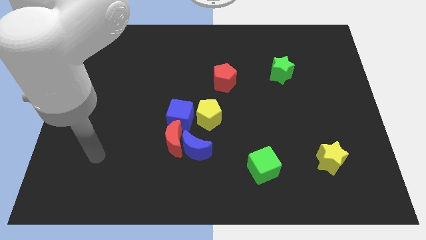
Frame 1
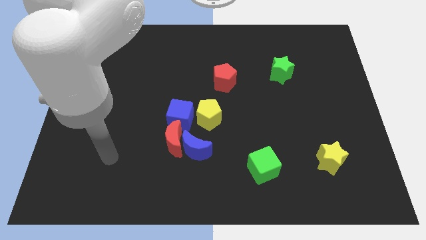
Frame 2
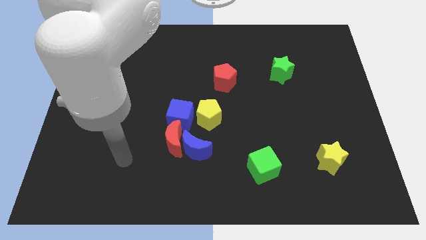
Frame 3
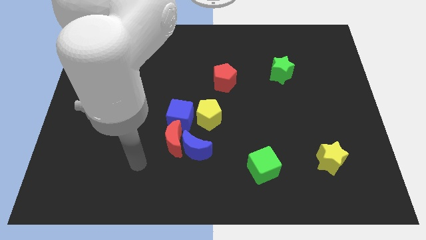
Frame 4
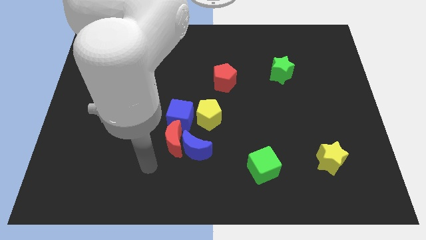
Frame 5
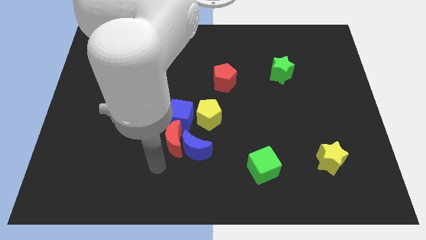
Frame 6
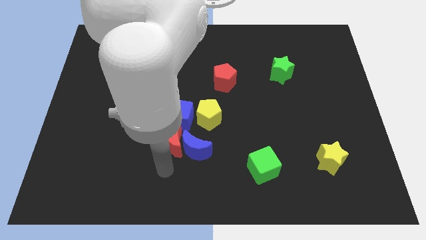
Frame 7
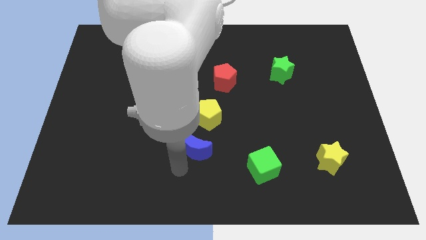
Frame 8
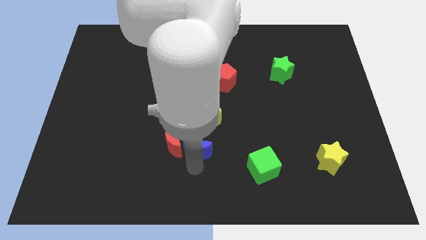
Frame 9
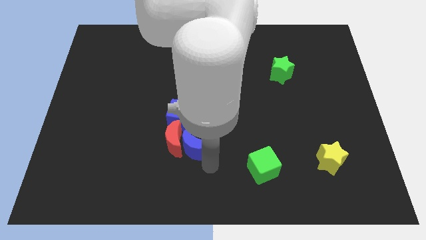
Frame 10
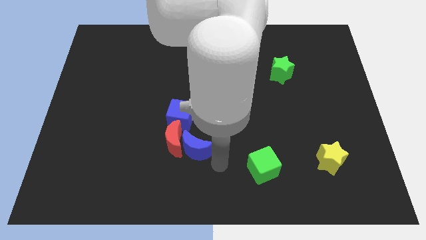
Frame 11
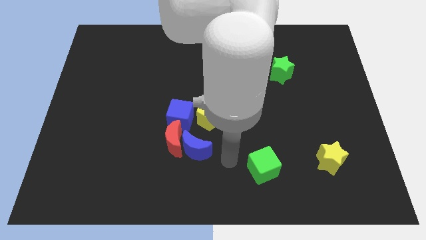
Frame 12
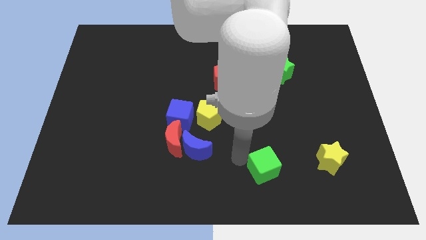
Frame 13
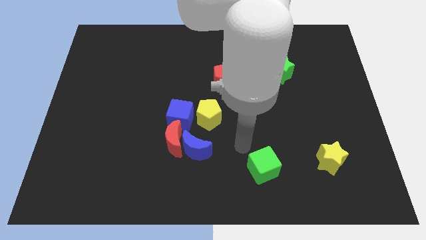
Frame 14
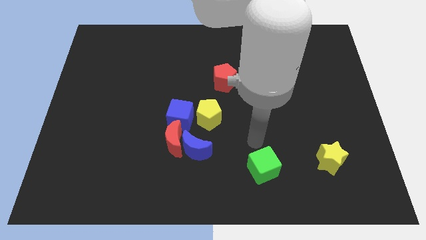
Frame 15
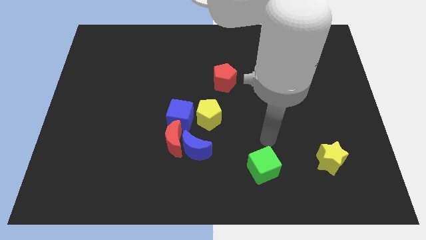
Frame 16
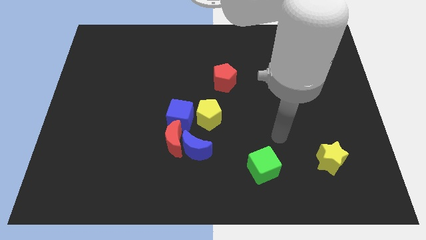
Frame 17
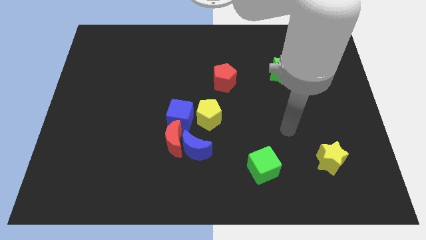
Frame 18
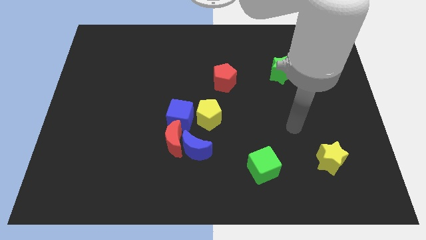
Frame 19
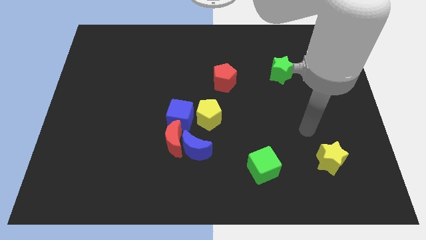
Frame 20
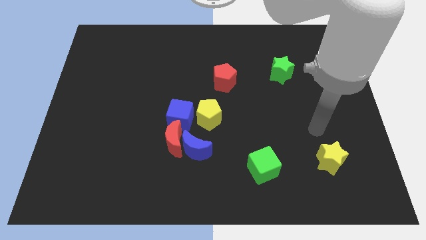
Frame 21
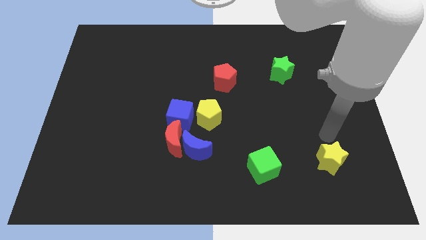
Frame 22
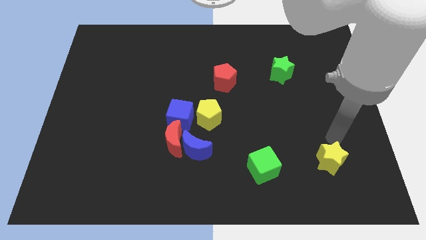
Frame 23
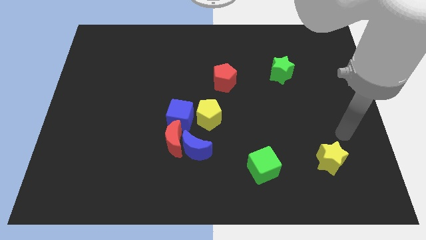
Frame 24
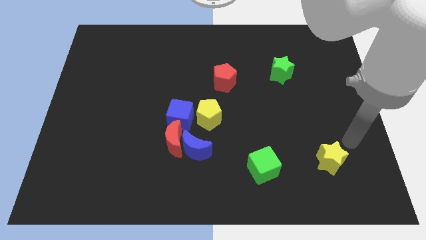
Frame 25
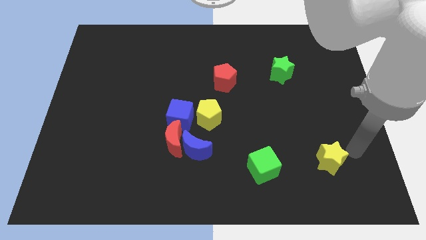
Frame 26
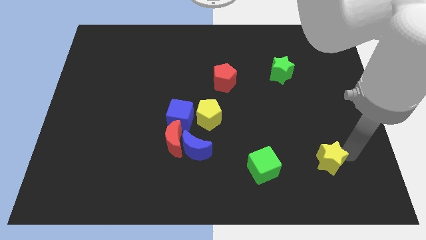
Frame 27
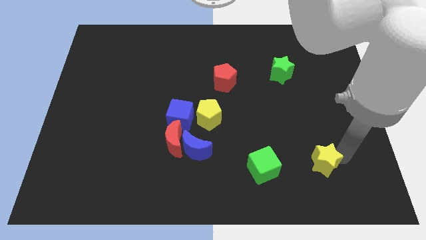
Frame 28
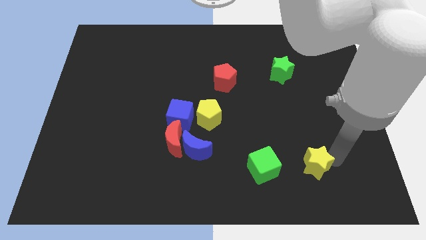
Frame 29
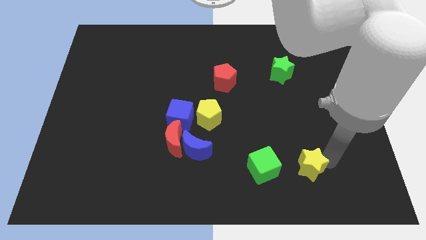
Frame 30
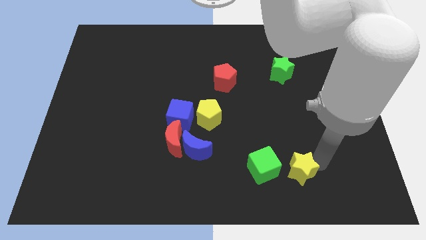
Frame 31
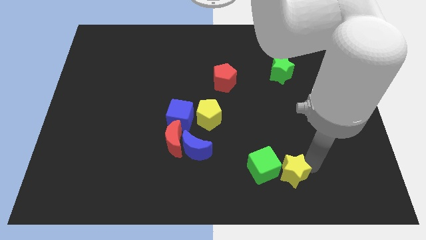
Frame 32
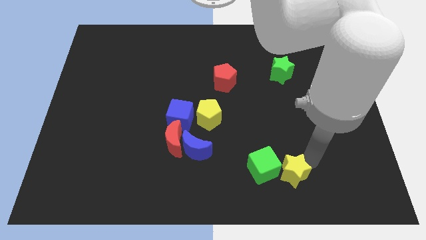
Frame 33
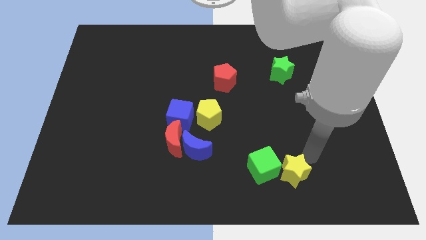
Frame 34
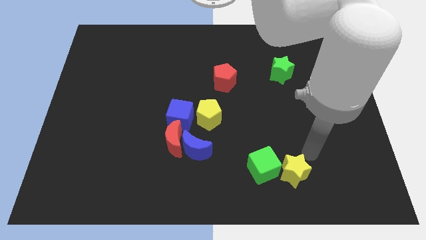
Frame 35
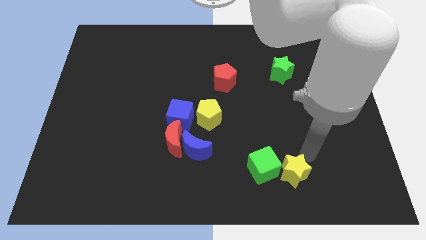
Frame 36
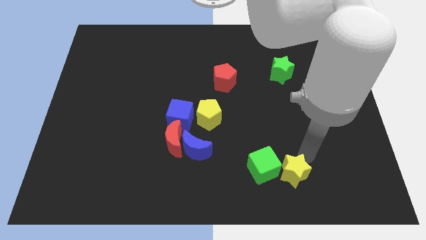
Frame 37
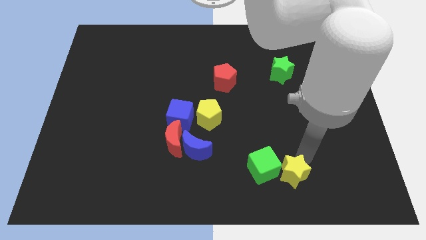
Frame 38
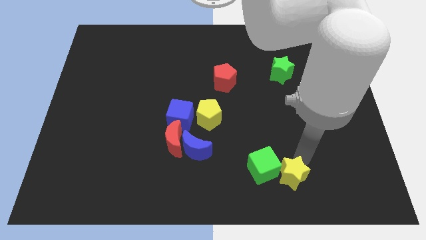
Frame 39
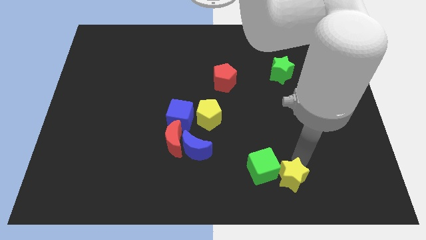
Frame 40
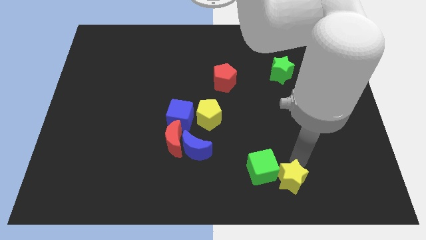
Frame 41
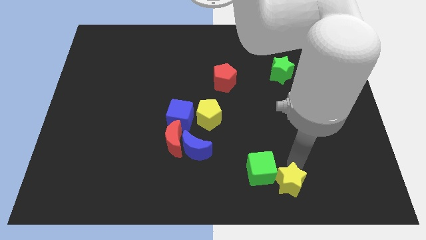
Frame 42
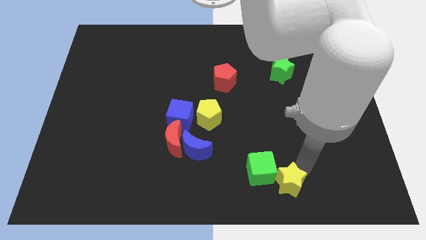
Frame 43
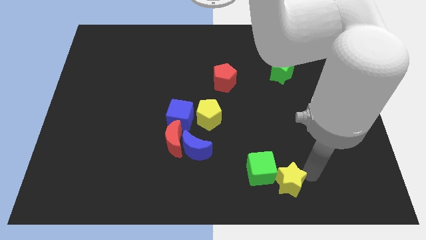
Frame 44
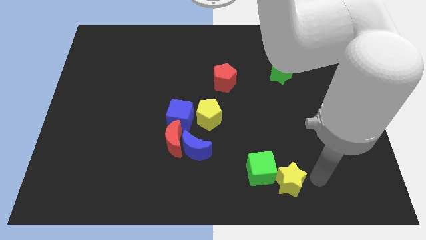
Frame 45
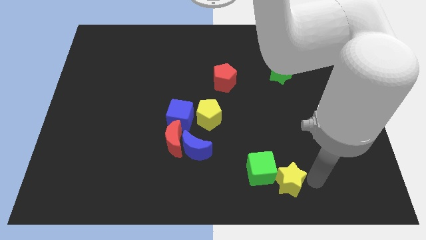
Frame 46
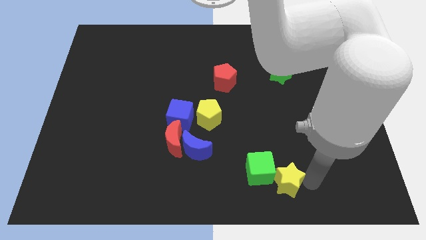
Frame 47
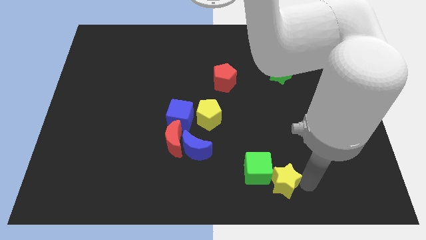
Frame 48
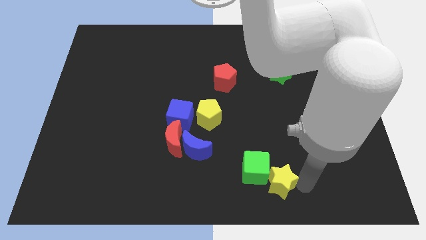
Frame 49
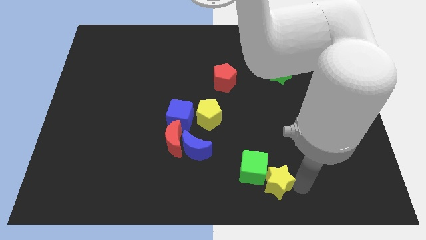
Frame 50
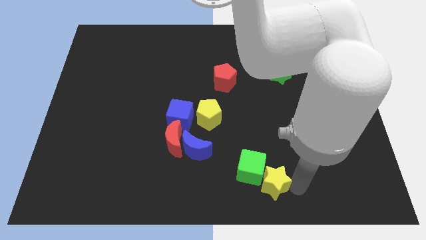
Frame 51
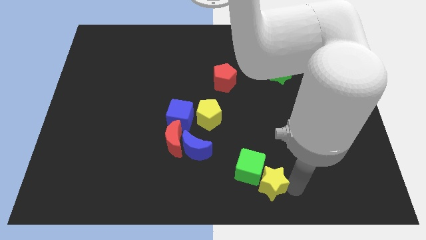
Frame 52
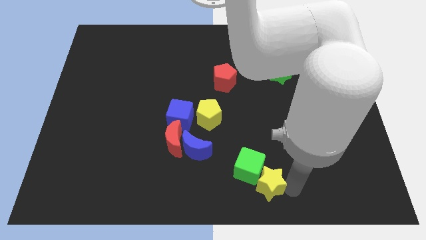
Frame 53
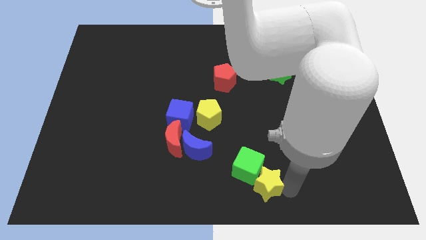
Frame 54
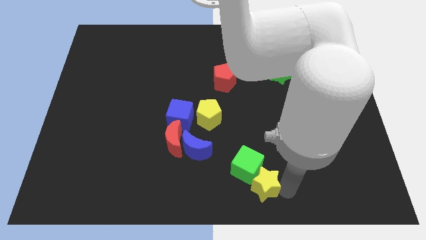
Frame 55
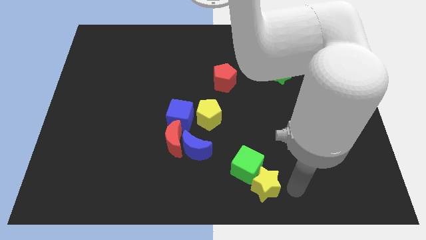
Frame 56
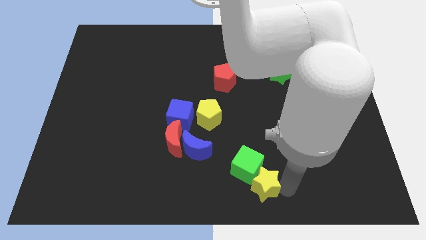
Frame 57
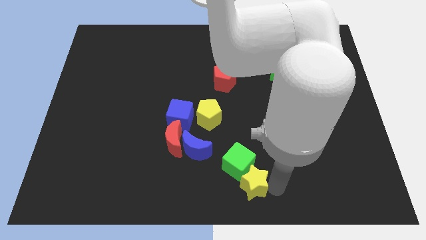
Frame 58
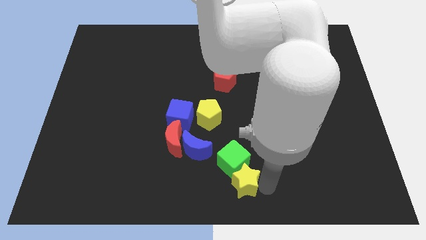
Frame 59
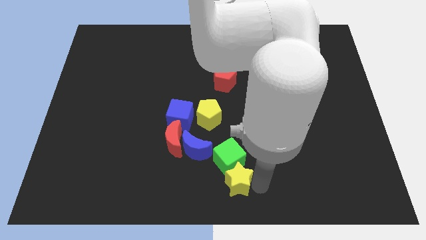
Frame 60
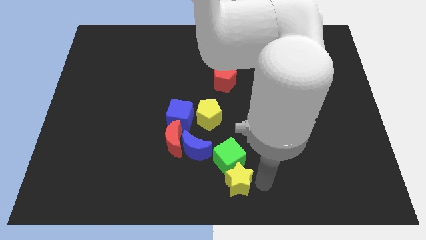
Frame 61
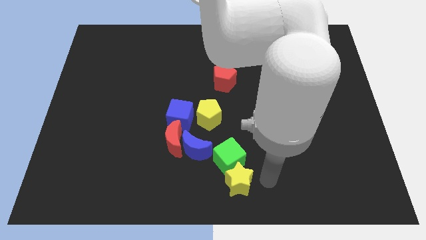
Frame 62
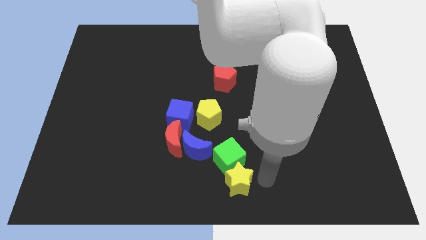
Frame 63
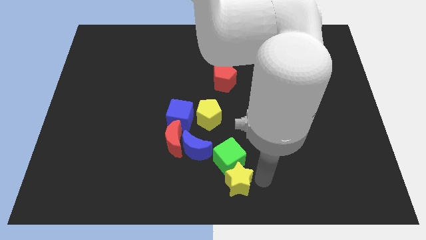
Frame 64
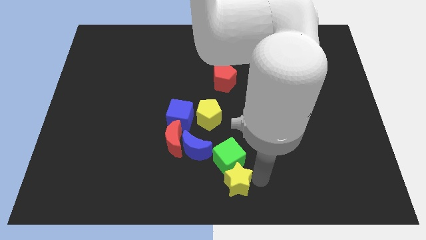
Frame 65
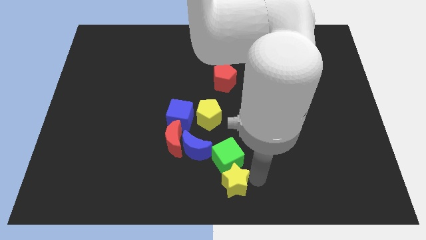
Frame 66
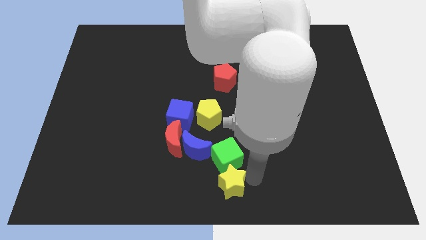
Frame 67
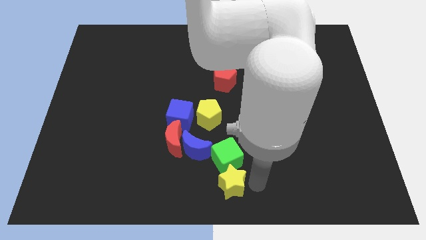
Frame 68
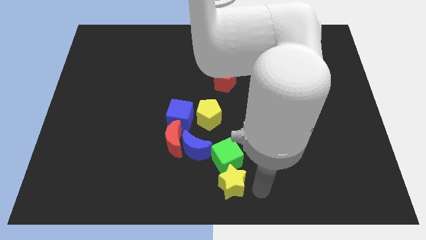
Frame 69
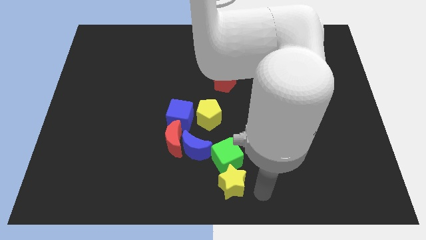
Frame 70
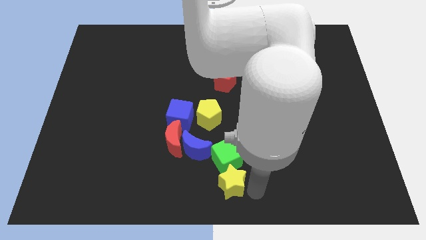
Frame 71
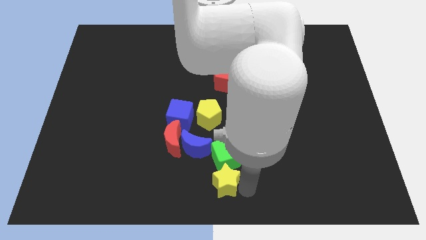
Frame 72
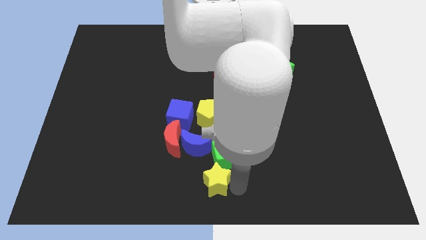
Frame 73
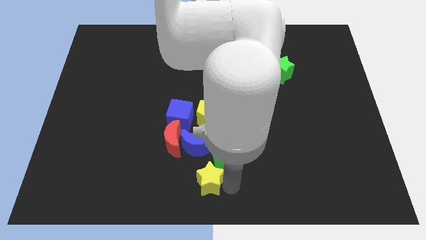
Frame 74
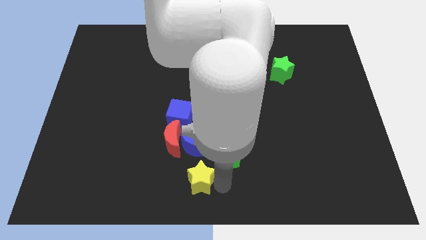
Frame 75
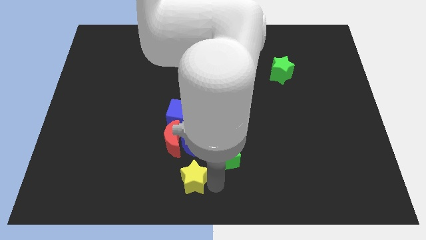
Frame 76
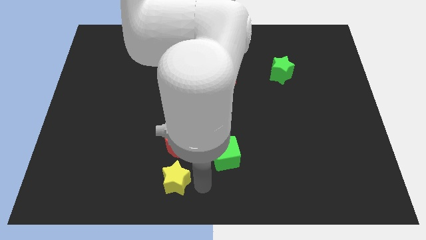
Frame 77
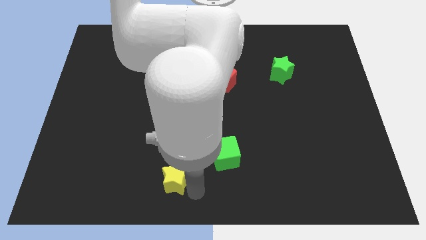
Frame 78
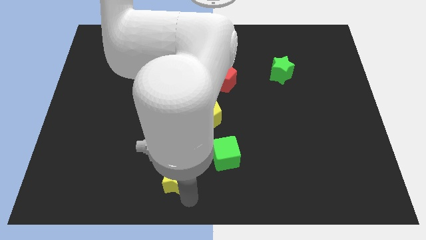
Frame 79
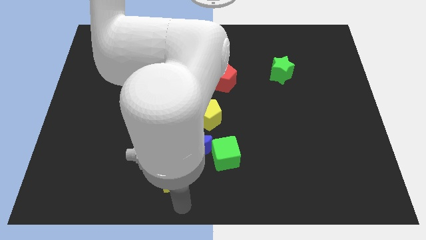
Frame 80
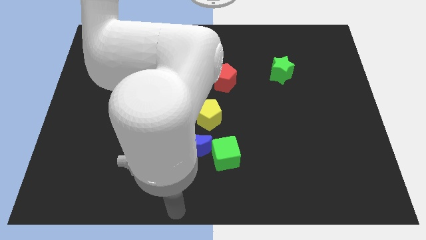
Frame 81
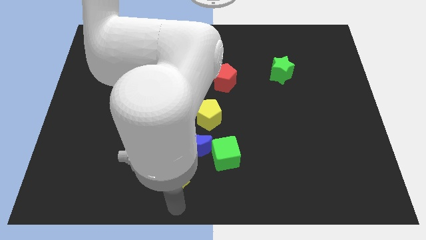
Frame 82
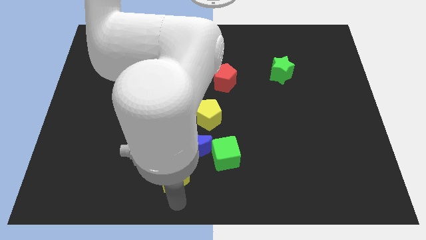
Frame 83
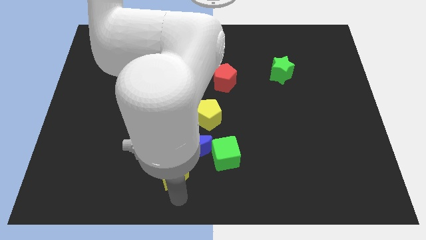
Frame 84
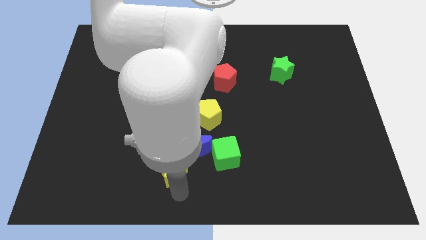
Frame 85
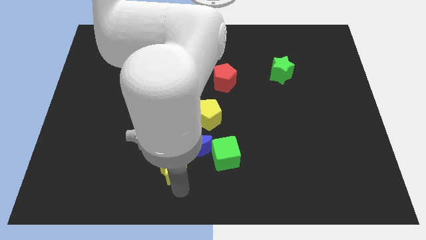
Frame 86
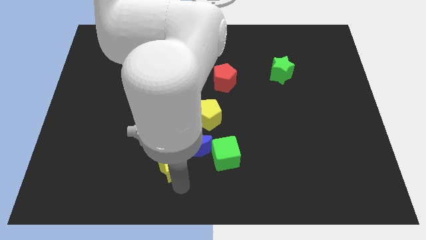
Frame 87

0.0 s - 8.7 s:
push the yellow star next to the red moon
